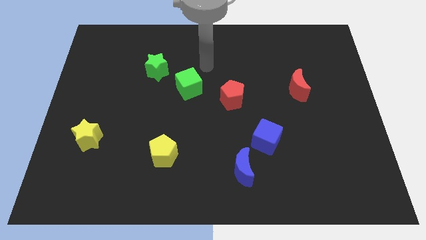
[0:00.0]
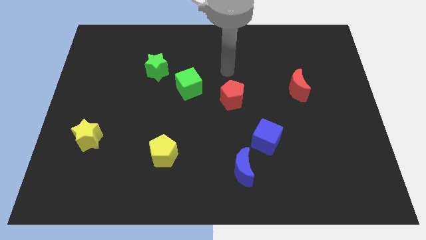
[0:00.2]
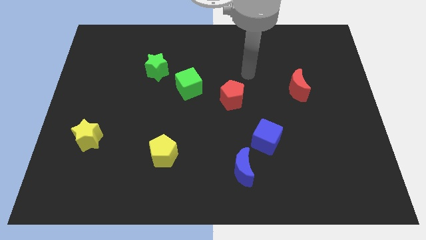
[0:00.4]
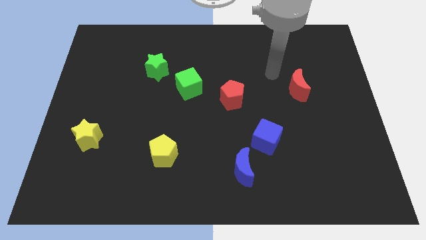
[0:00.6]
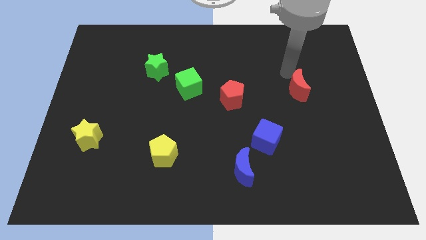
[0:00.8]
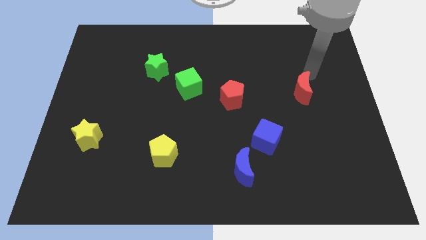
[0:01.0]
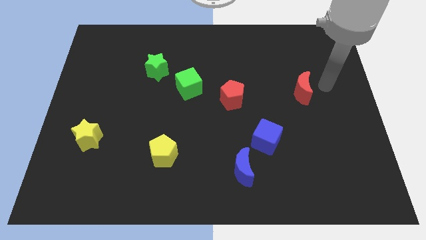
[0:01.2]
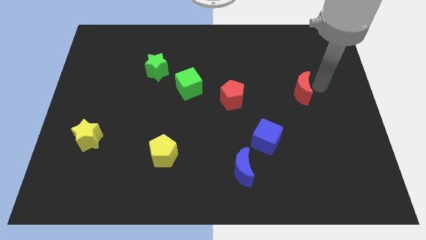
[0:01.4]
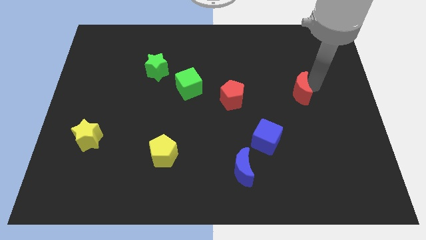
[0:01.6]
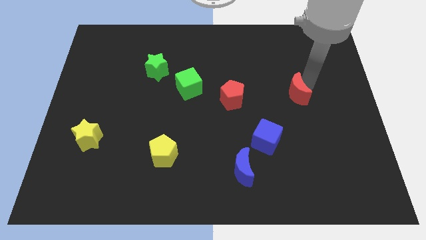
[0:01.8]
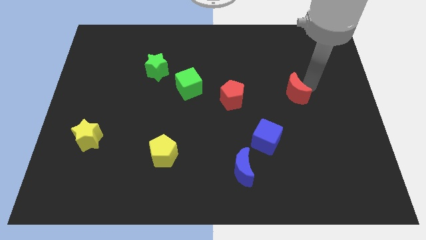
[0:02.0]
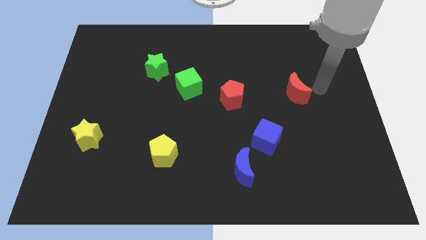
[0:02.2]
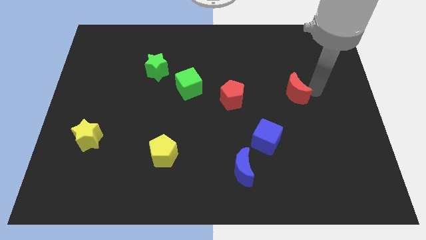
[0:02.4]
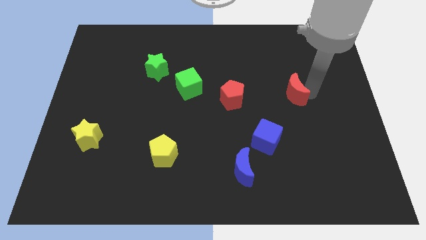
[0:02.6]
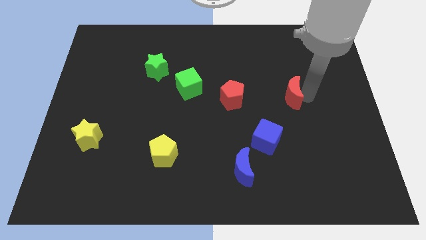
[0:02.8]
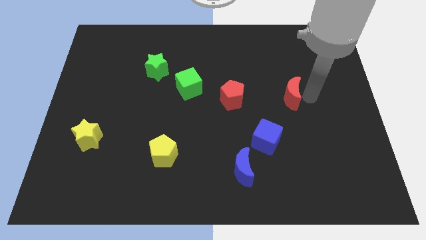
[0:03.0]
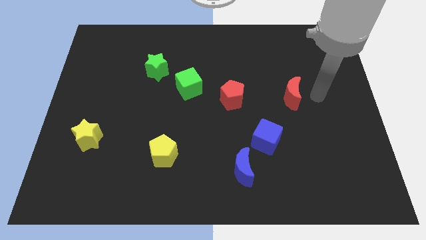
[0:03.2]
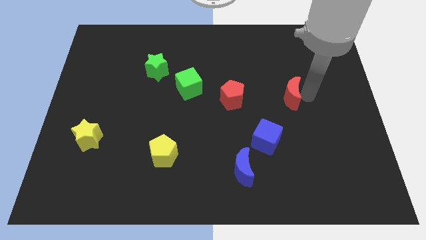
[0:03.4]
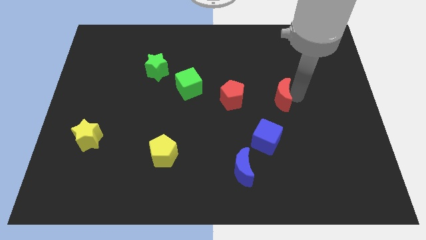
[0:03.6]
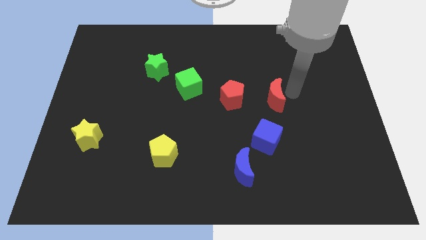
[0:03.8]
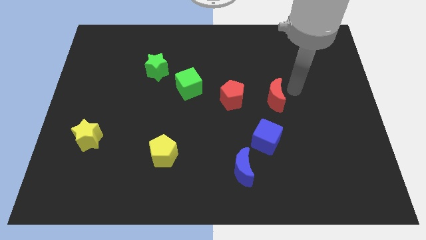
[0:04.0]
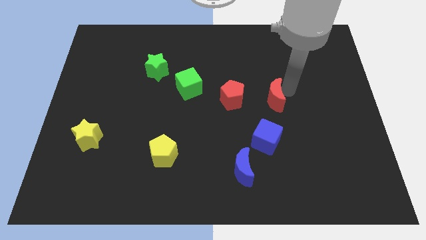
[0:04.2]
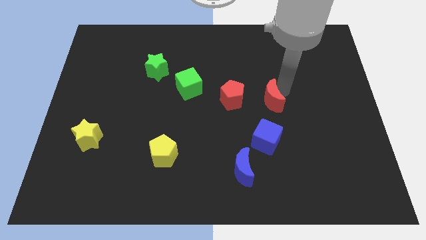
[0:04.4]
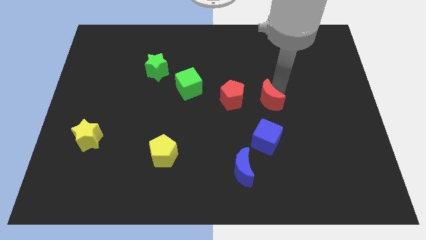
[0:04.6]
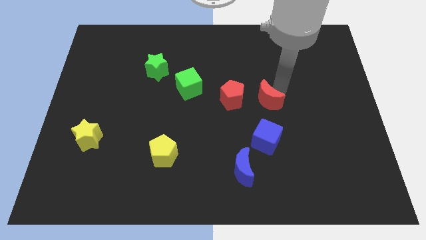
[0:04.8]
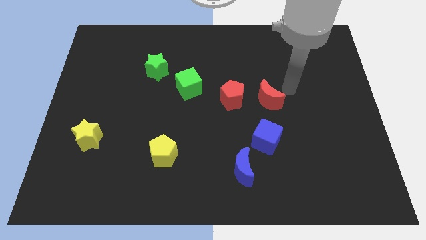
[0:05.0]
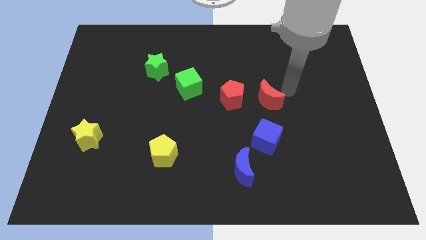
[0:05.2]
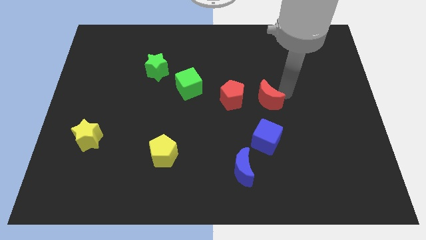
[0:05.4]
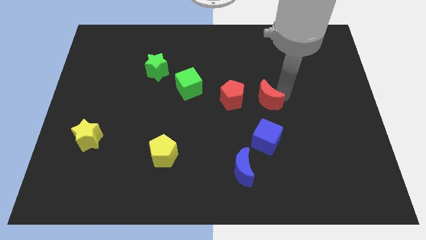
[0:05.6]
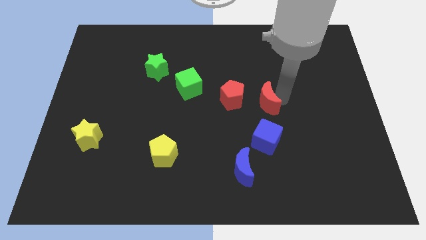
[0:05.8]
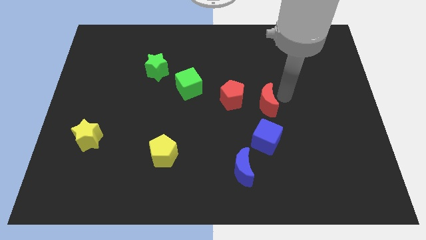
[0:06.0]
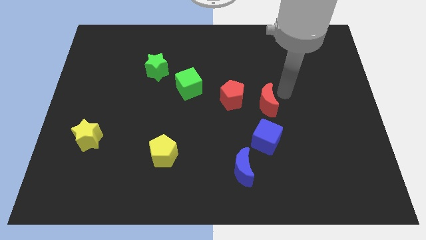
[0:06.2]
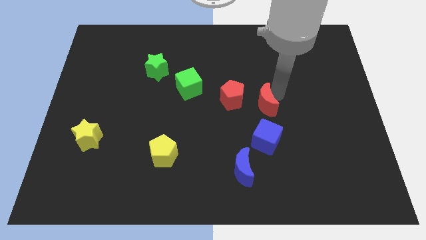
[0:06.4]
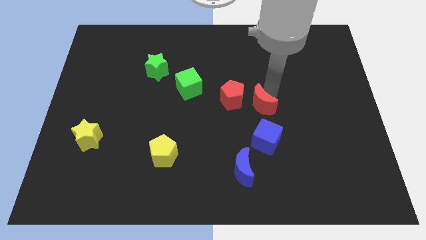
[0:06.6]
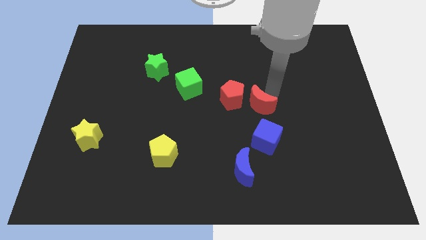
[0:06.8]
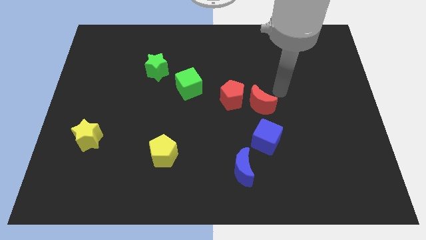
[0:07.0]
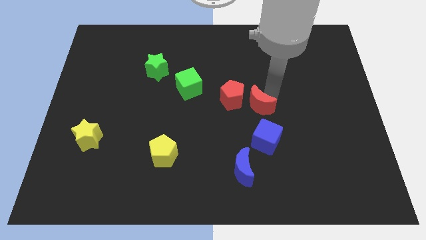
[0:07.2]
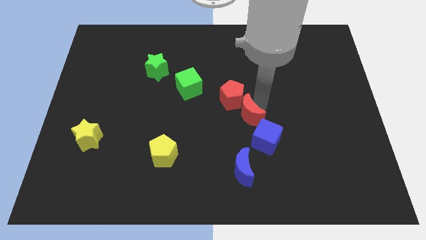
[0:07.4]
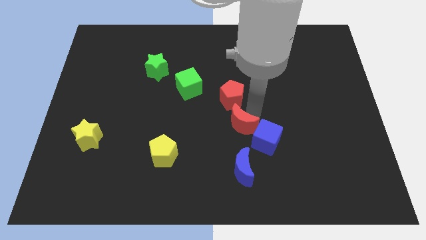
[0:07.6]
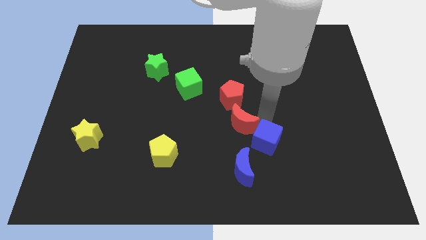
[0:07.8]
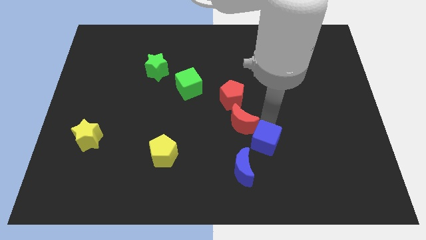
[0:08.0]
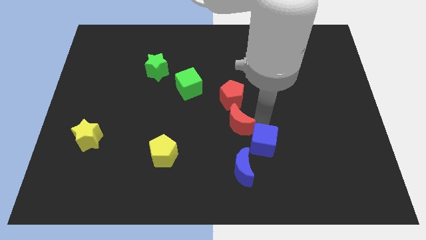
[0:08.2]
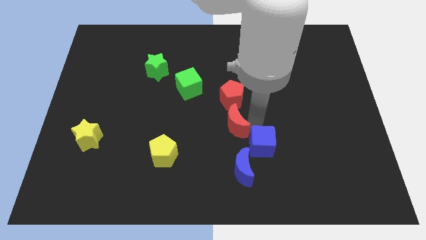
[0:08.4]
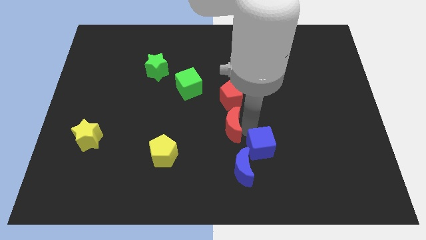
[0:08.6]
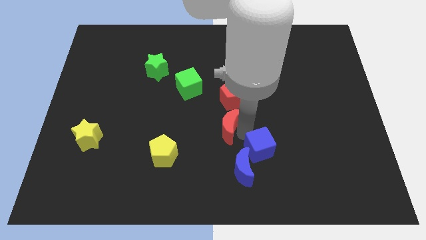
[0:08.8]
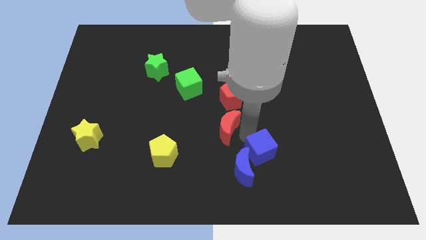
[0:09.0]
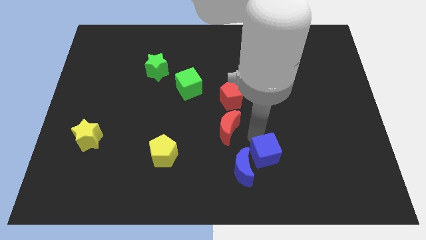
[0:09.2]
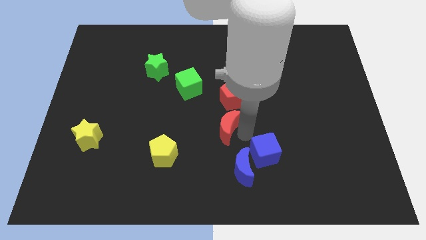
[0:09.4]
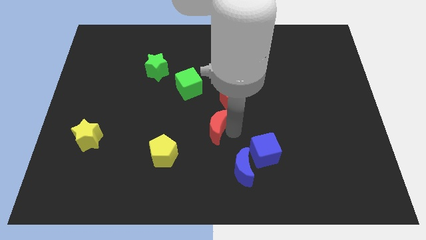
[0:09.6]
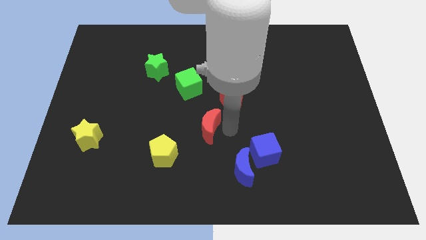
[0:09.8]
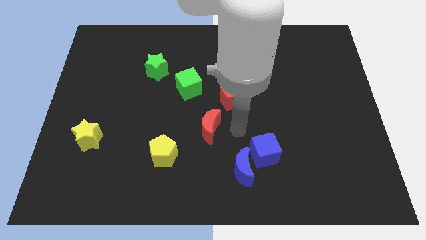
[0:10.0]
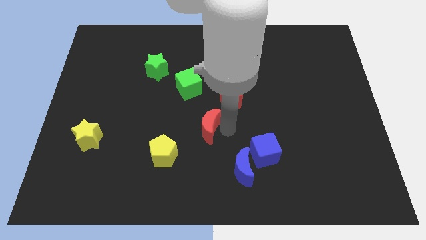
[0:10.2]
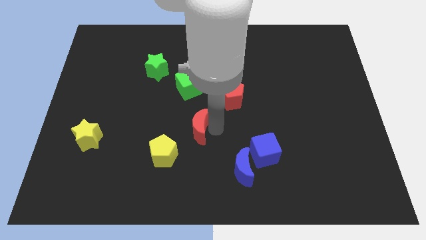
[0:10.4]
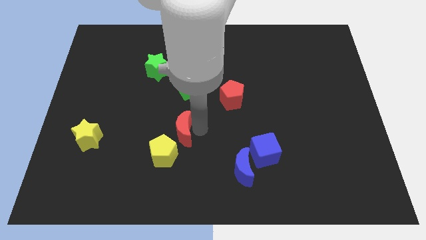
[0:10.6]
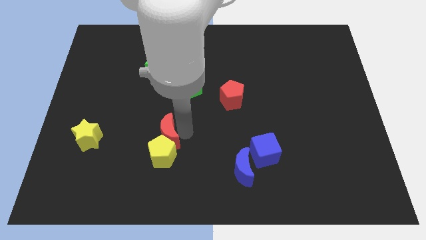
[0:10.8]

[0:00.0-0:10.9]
move the red moon diagonally up and to the left of the yellow pentagon

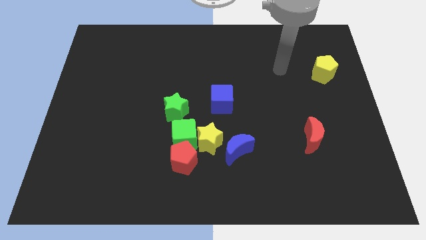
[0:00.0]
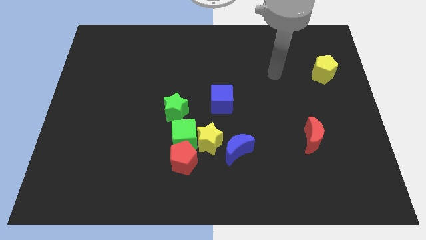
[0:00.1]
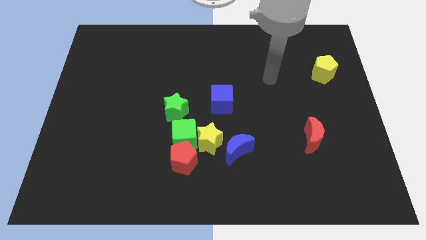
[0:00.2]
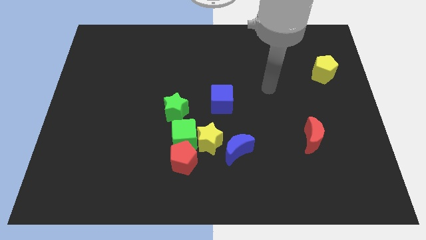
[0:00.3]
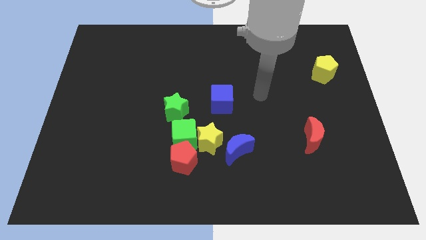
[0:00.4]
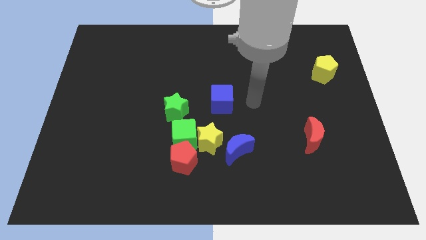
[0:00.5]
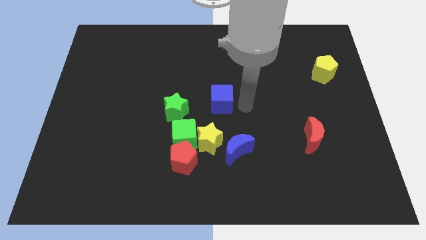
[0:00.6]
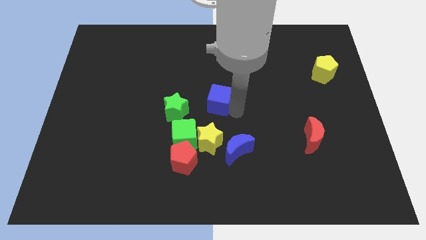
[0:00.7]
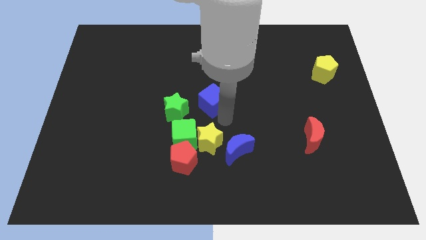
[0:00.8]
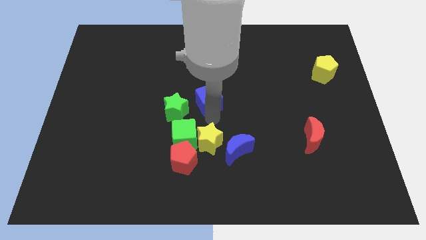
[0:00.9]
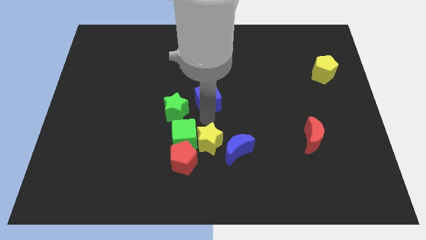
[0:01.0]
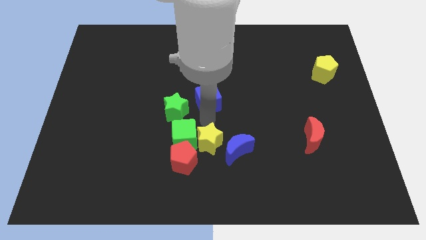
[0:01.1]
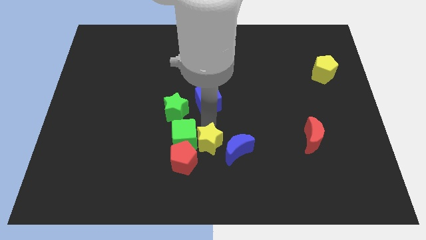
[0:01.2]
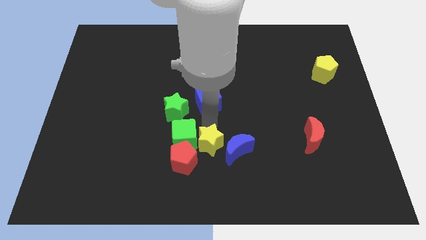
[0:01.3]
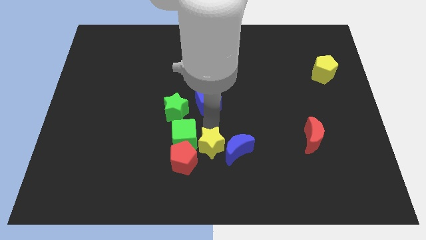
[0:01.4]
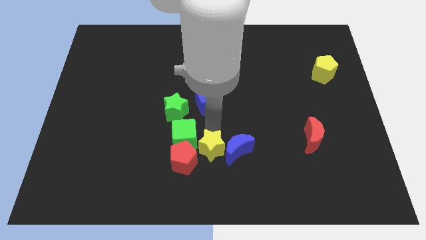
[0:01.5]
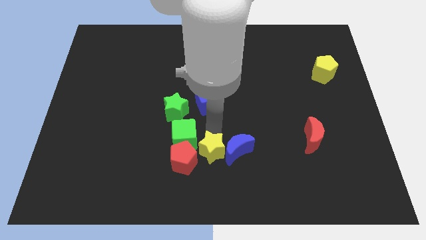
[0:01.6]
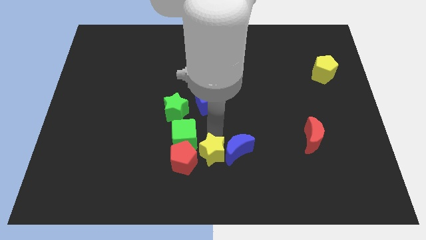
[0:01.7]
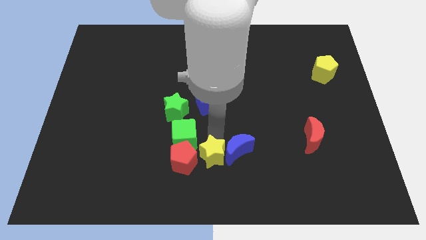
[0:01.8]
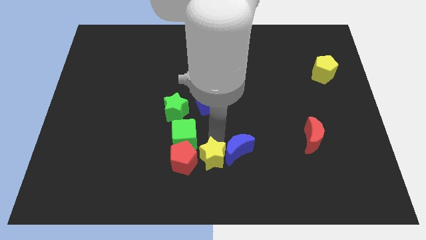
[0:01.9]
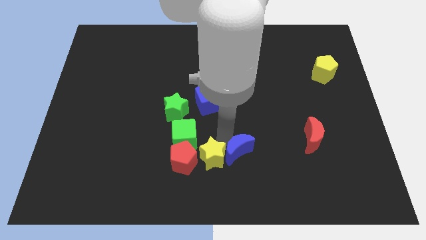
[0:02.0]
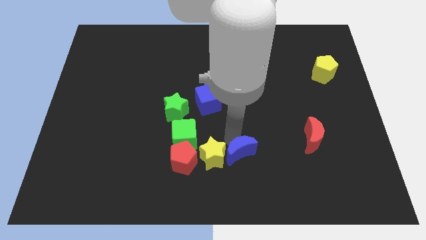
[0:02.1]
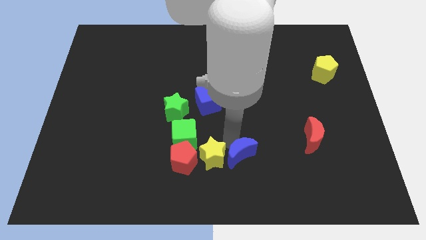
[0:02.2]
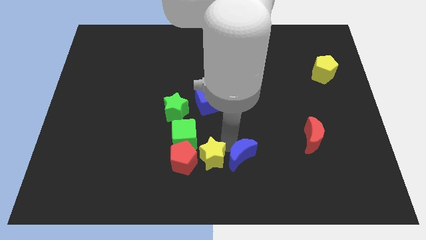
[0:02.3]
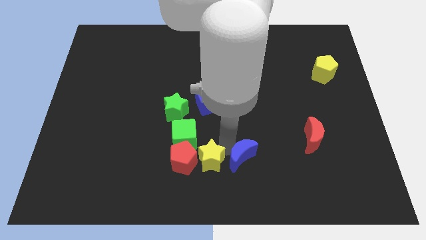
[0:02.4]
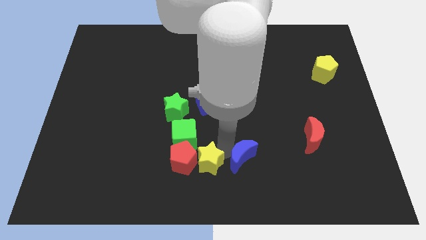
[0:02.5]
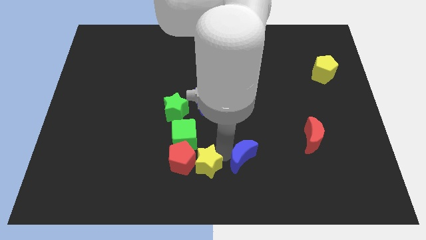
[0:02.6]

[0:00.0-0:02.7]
put the yellow star below the green cube
